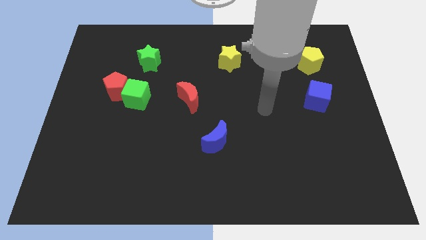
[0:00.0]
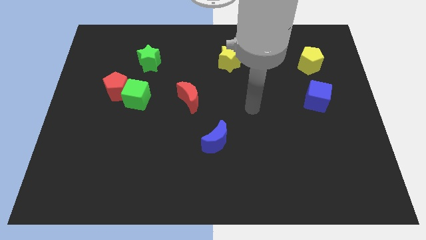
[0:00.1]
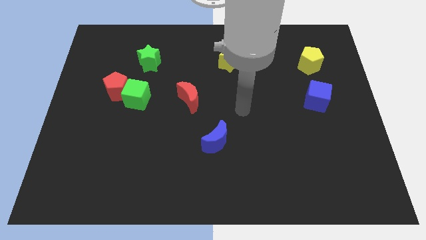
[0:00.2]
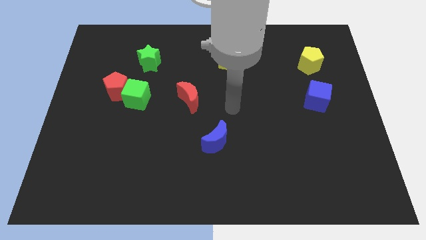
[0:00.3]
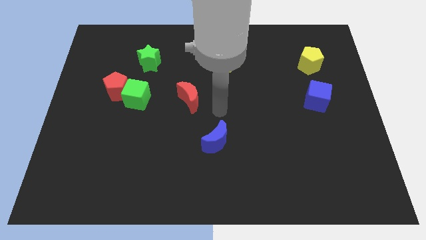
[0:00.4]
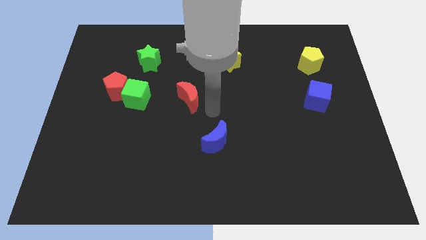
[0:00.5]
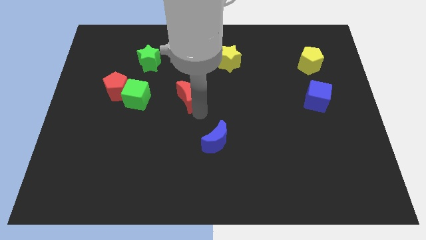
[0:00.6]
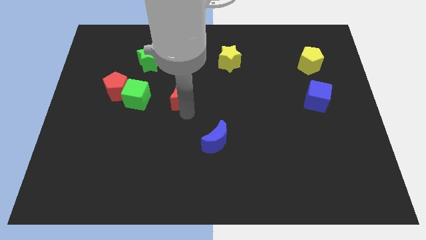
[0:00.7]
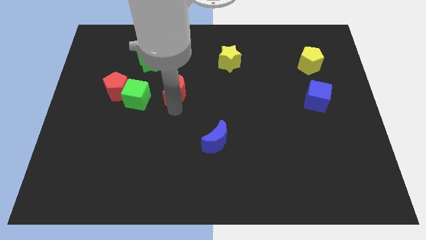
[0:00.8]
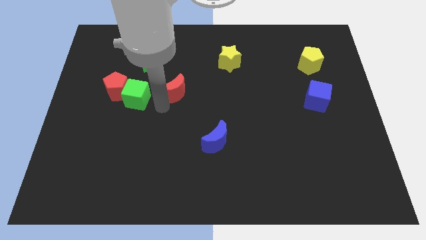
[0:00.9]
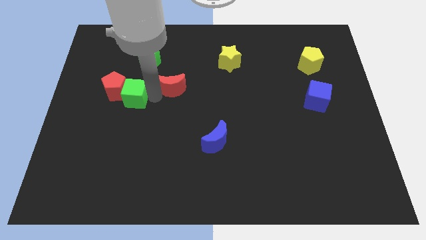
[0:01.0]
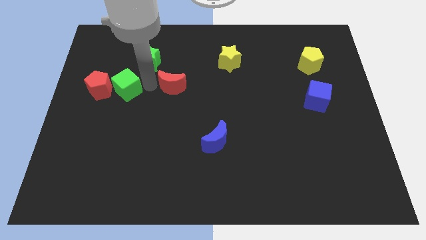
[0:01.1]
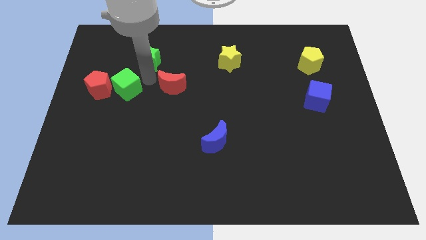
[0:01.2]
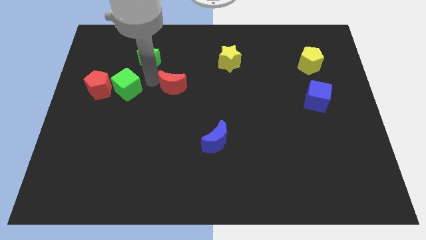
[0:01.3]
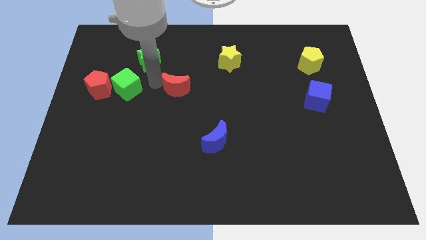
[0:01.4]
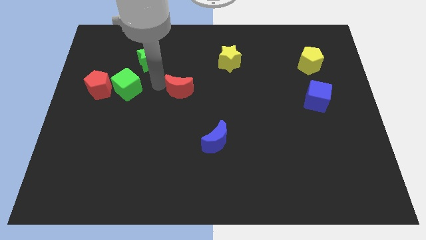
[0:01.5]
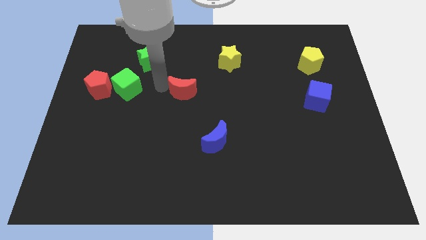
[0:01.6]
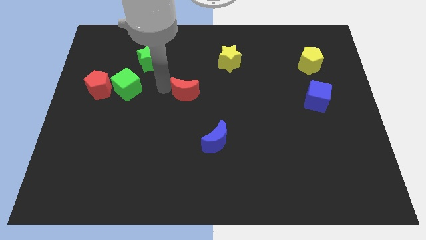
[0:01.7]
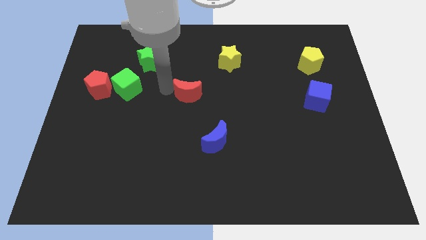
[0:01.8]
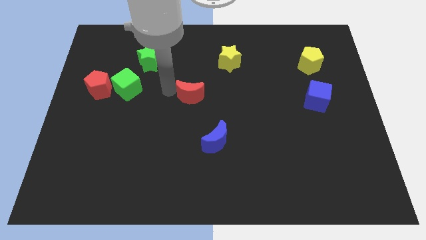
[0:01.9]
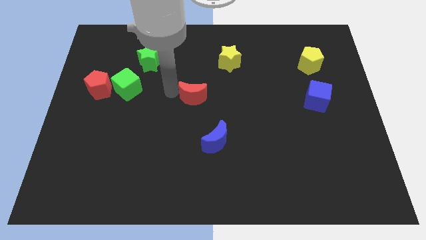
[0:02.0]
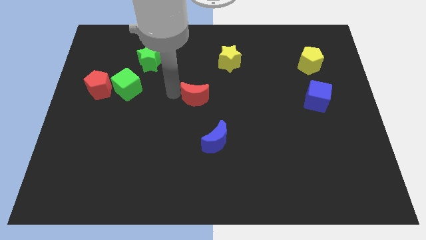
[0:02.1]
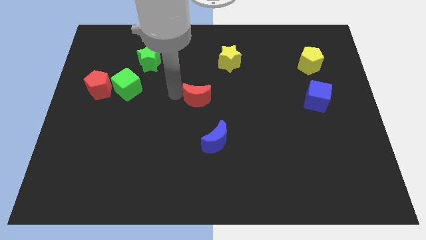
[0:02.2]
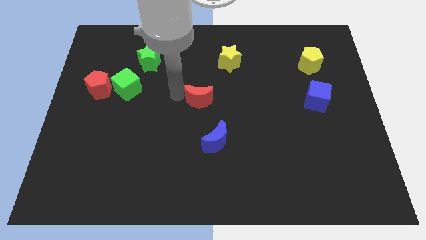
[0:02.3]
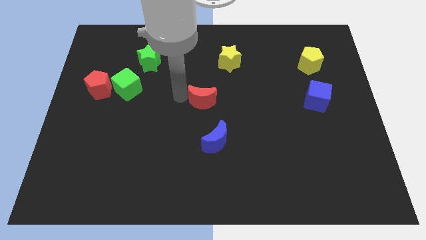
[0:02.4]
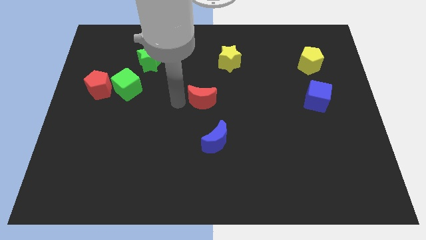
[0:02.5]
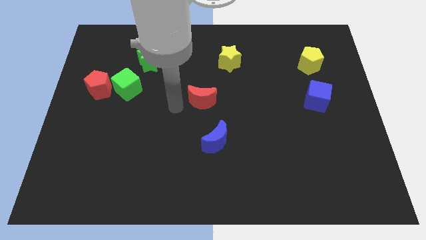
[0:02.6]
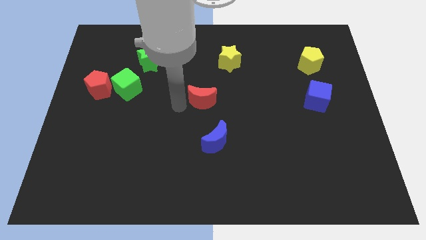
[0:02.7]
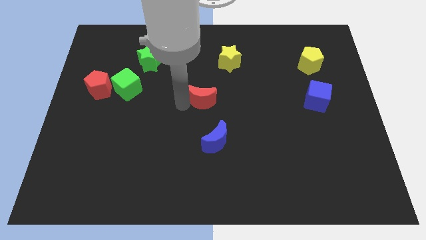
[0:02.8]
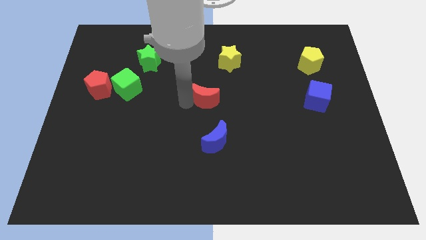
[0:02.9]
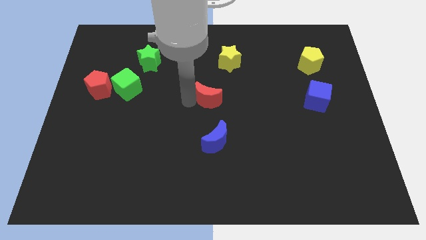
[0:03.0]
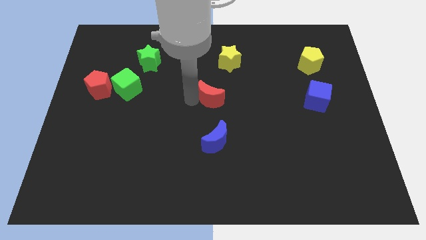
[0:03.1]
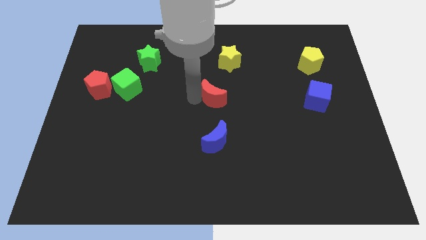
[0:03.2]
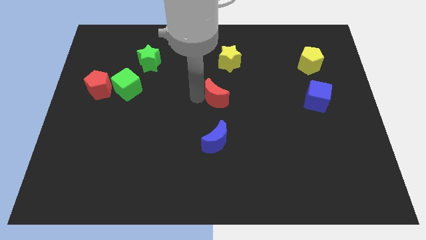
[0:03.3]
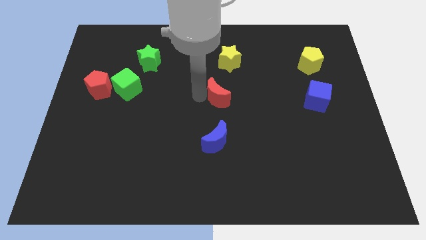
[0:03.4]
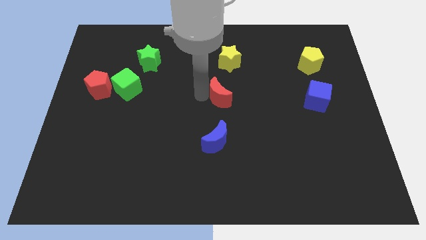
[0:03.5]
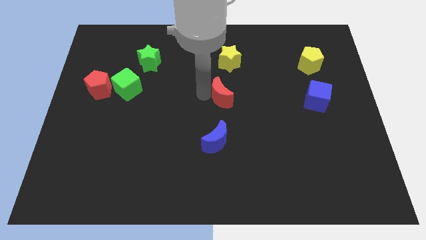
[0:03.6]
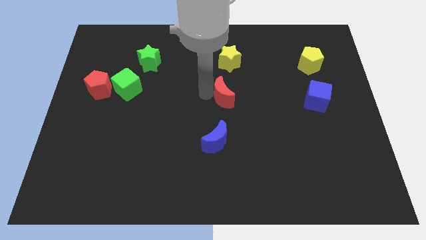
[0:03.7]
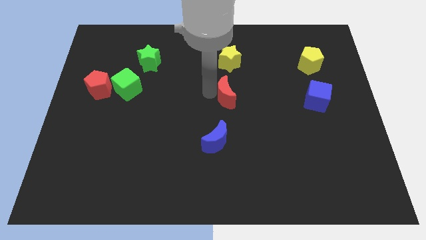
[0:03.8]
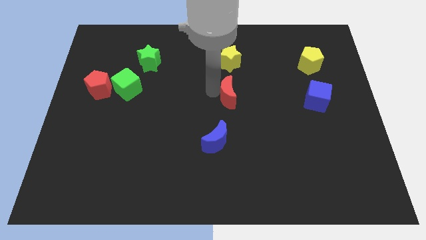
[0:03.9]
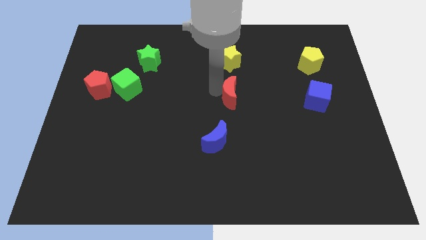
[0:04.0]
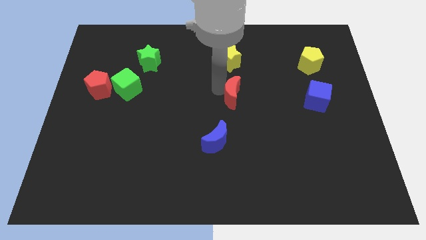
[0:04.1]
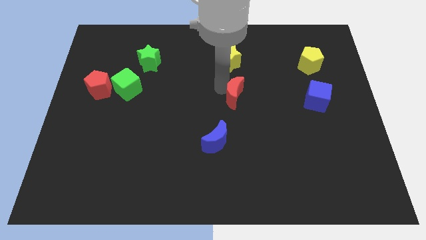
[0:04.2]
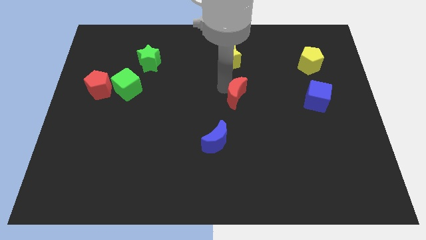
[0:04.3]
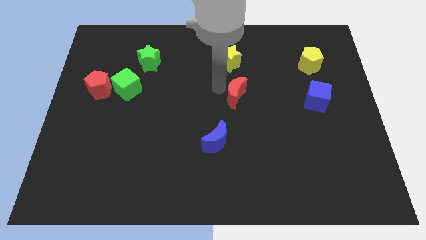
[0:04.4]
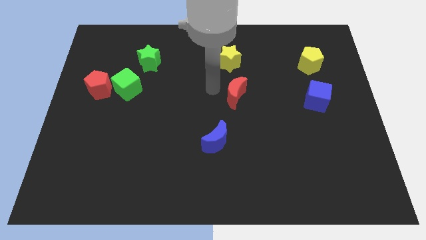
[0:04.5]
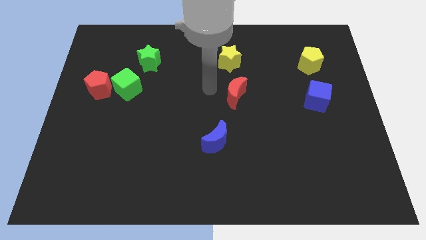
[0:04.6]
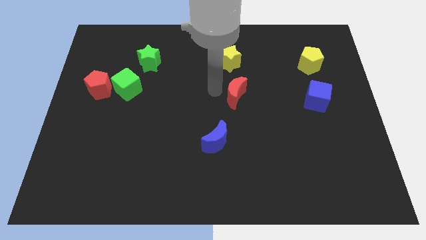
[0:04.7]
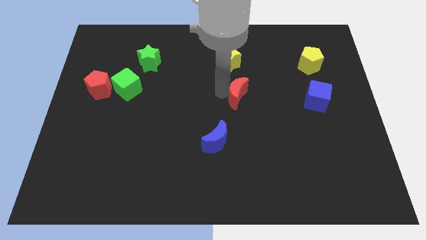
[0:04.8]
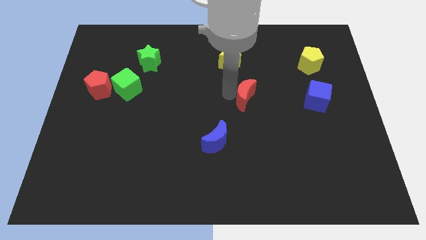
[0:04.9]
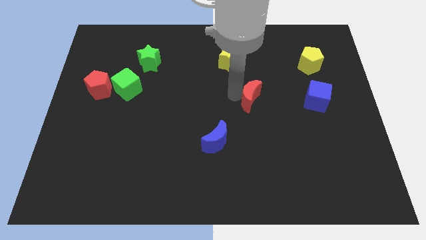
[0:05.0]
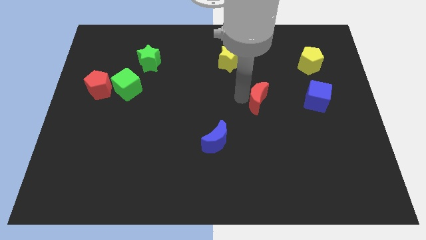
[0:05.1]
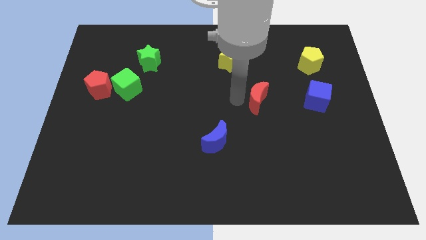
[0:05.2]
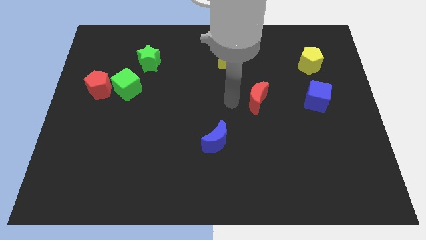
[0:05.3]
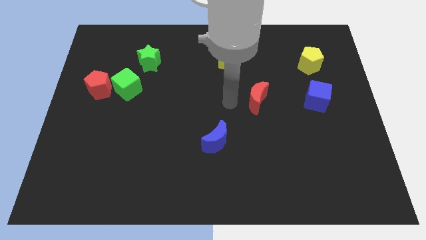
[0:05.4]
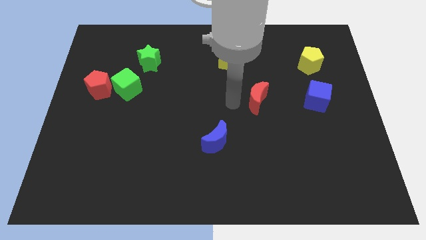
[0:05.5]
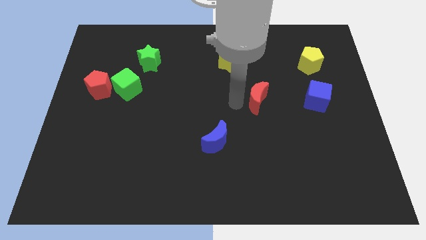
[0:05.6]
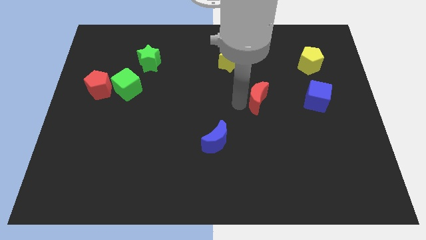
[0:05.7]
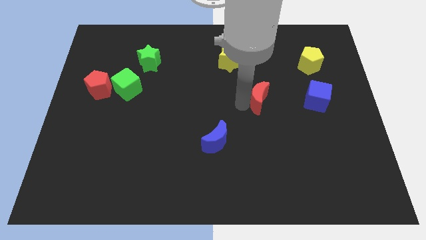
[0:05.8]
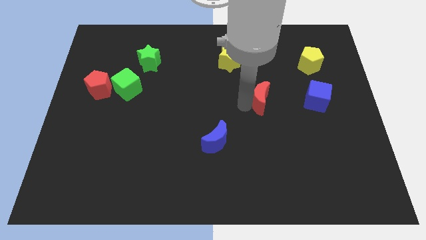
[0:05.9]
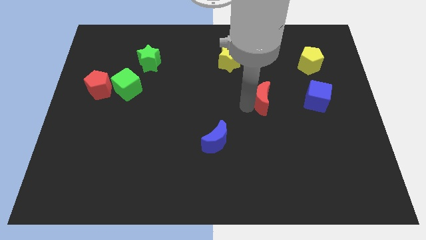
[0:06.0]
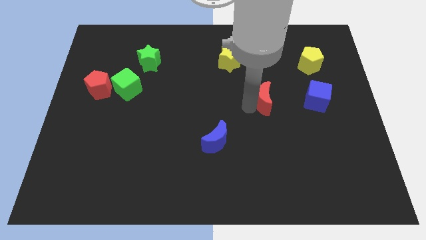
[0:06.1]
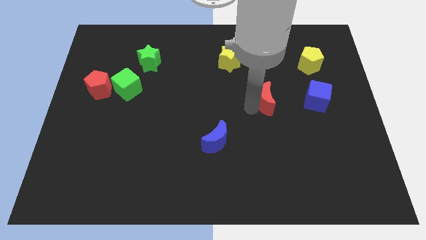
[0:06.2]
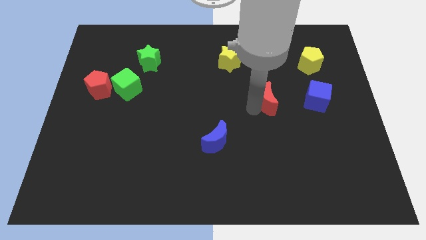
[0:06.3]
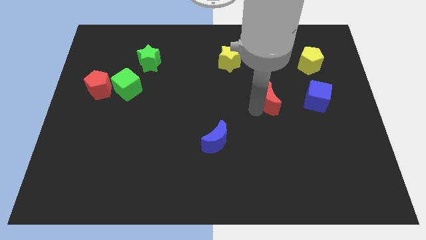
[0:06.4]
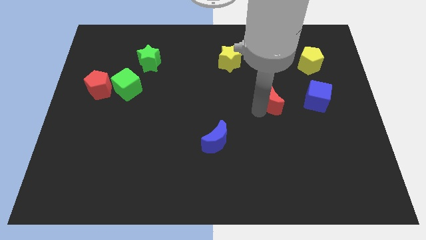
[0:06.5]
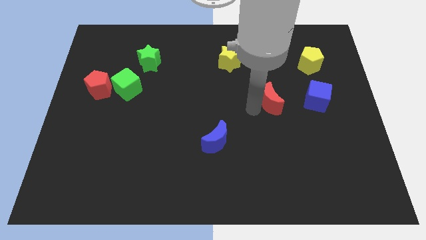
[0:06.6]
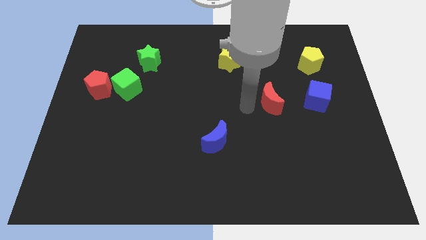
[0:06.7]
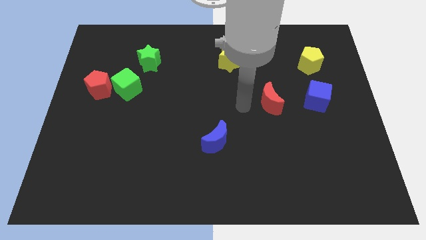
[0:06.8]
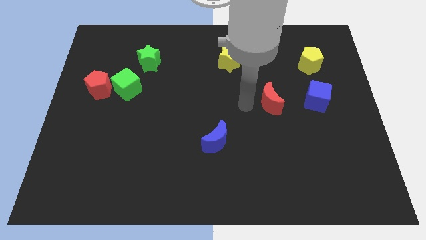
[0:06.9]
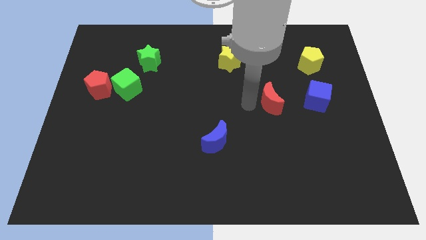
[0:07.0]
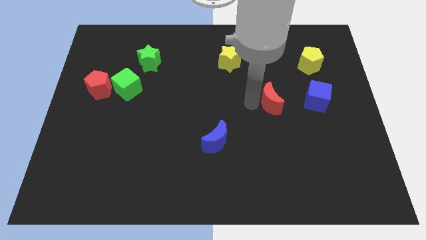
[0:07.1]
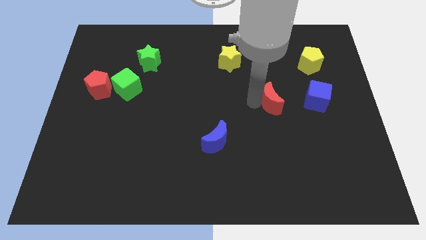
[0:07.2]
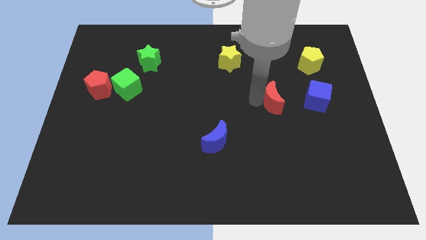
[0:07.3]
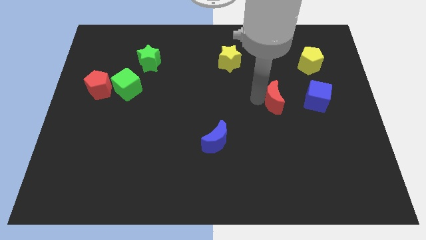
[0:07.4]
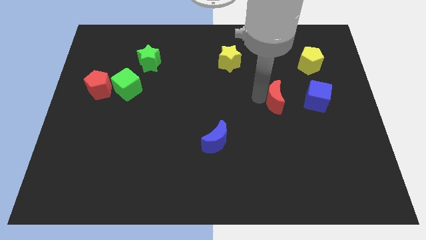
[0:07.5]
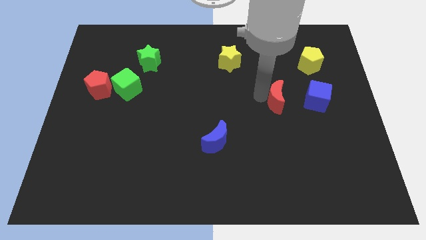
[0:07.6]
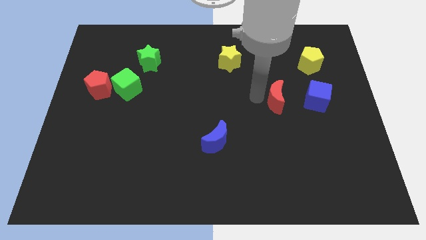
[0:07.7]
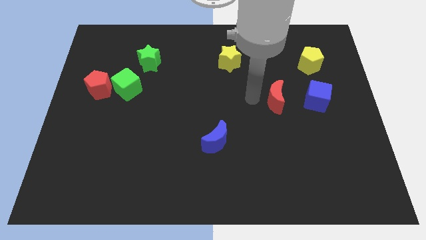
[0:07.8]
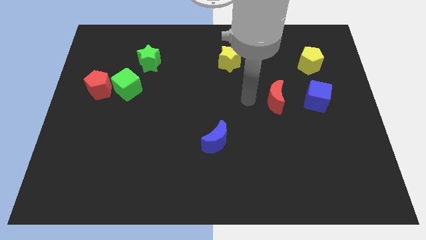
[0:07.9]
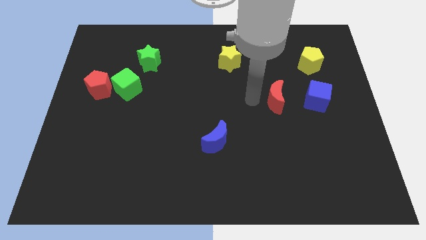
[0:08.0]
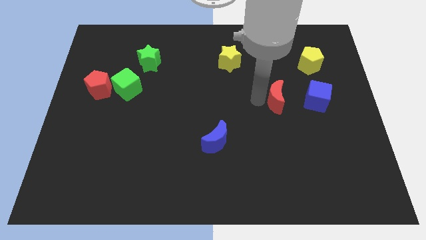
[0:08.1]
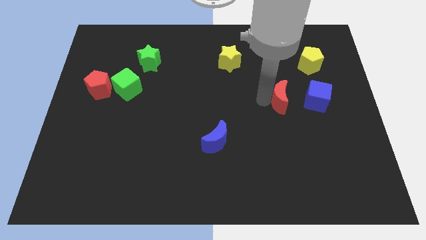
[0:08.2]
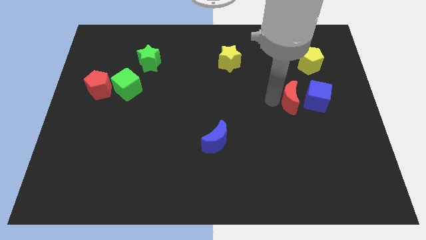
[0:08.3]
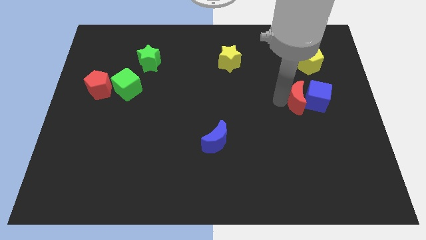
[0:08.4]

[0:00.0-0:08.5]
move the red moon next to the blue cube
